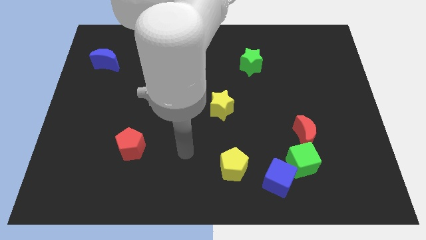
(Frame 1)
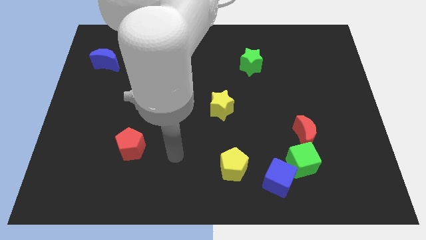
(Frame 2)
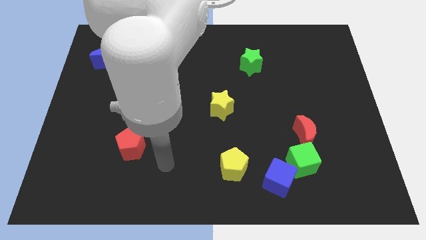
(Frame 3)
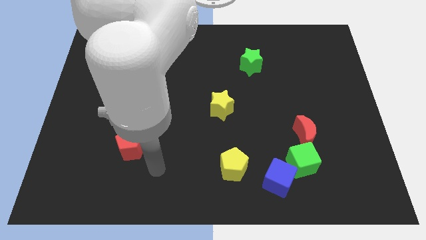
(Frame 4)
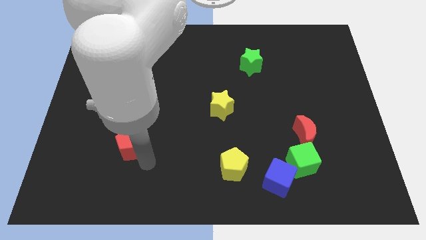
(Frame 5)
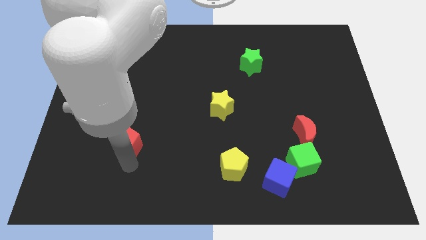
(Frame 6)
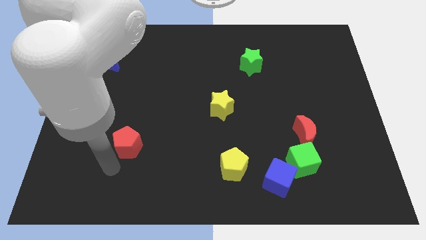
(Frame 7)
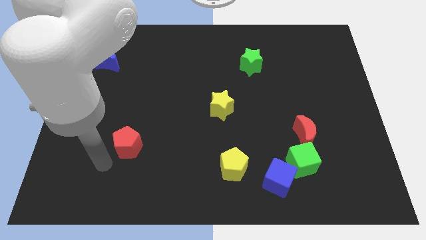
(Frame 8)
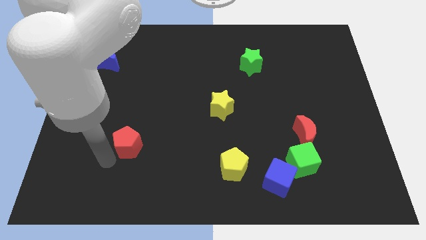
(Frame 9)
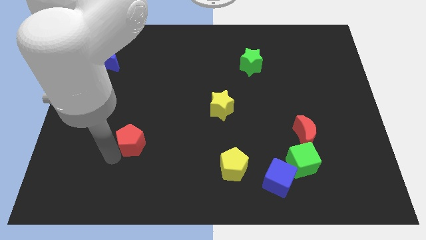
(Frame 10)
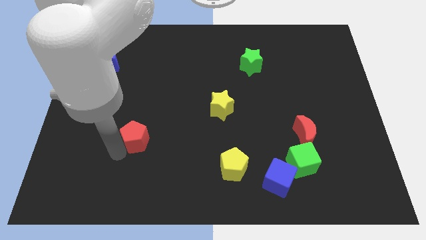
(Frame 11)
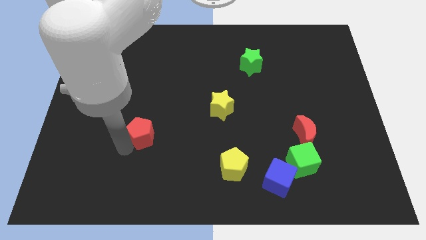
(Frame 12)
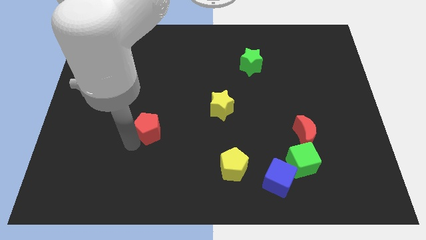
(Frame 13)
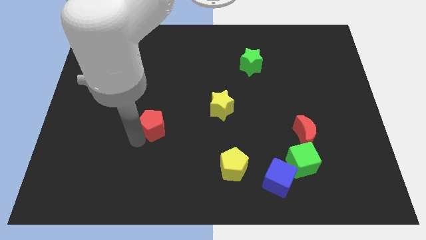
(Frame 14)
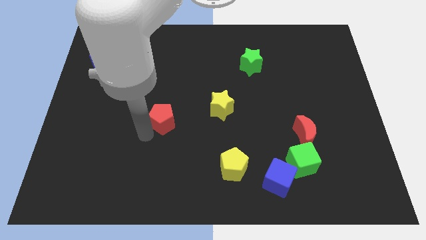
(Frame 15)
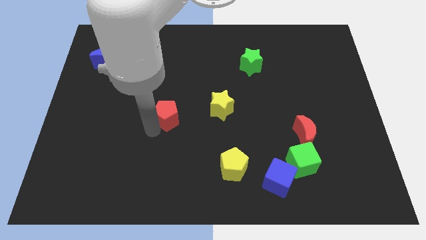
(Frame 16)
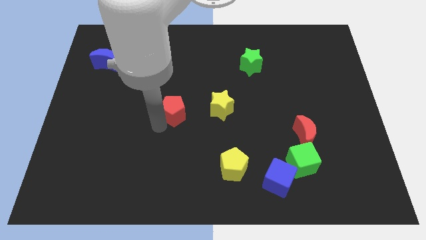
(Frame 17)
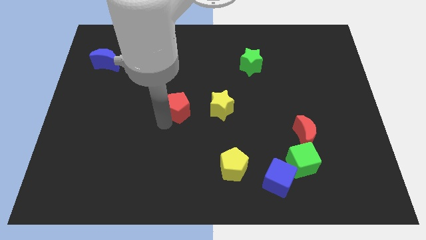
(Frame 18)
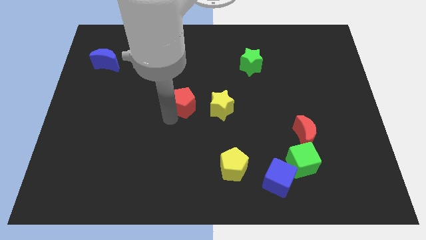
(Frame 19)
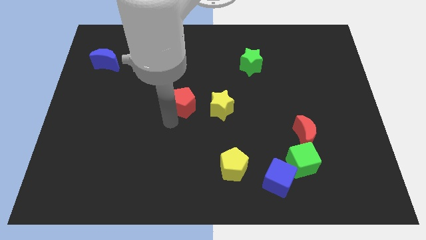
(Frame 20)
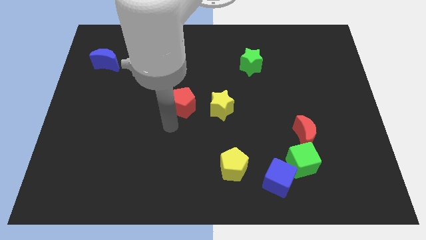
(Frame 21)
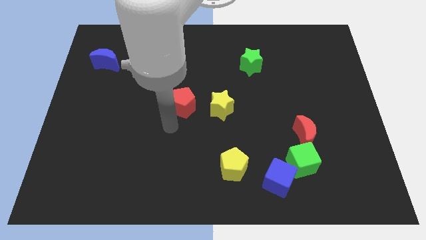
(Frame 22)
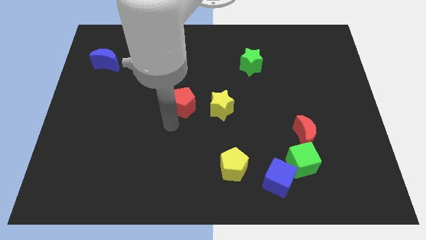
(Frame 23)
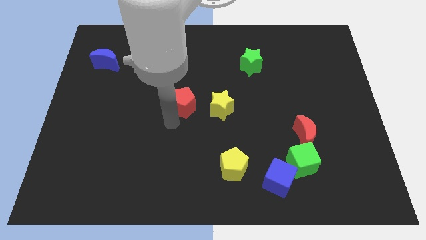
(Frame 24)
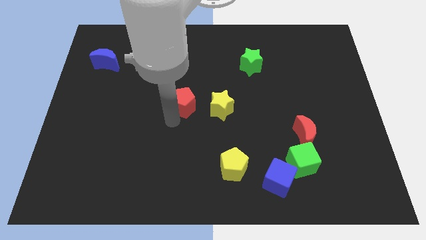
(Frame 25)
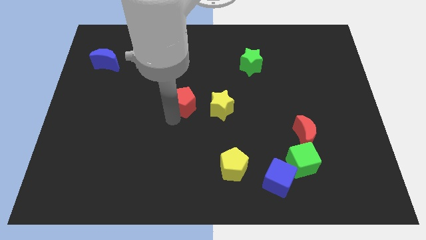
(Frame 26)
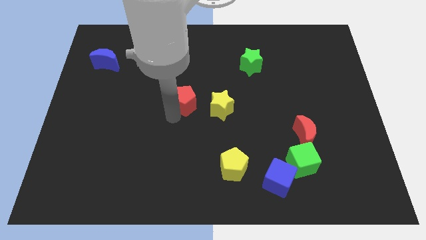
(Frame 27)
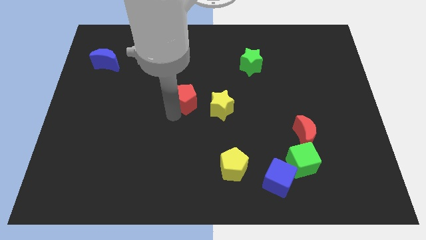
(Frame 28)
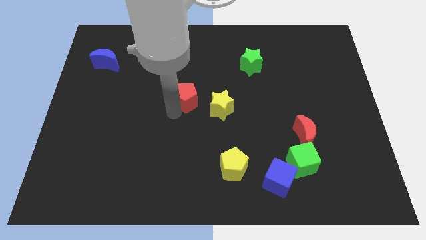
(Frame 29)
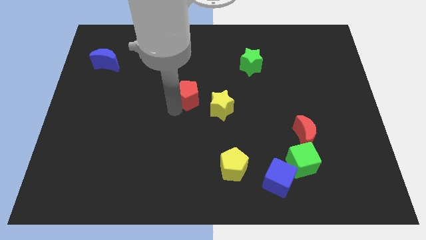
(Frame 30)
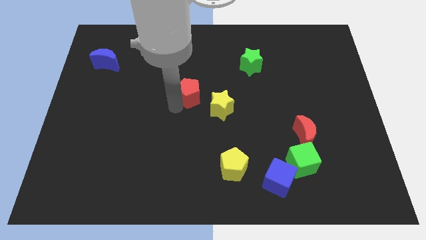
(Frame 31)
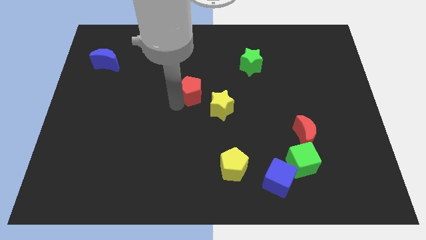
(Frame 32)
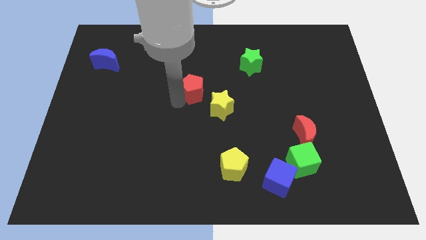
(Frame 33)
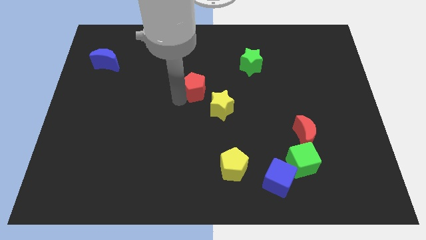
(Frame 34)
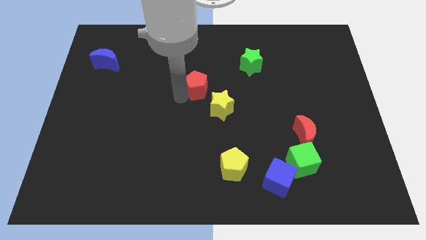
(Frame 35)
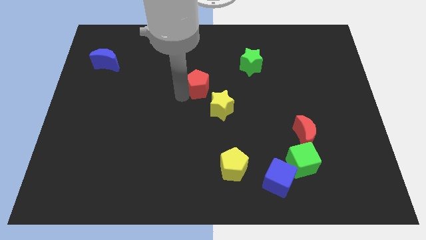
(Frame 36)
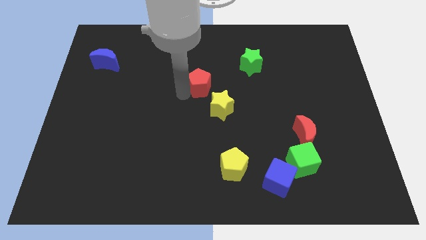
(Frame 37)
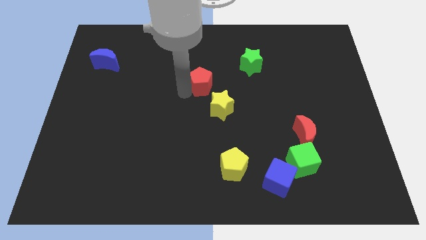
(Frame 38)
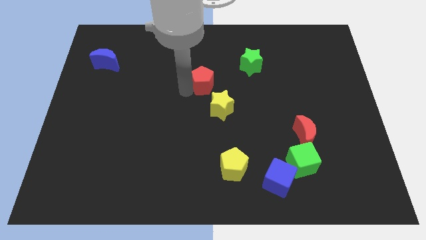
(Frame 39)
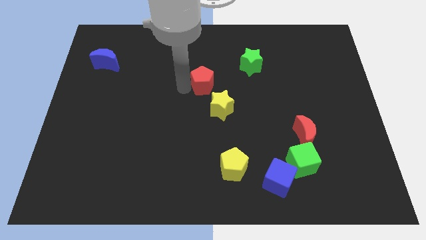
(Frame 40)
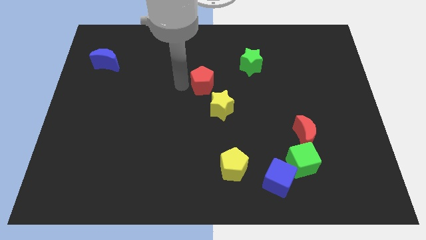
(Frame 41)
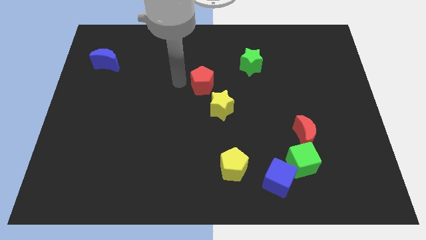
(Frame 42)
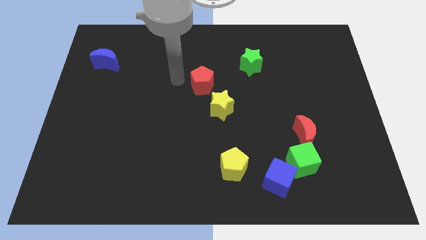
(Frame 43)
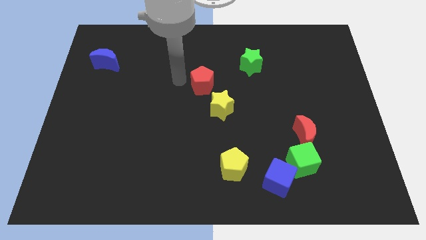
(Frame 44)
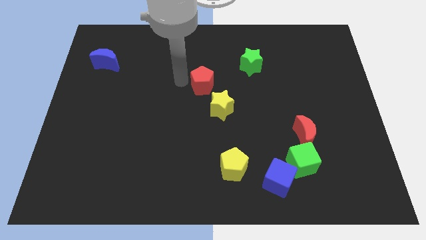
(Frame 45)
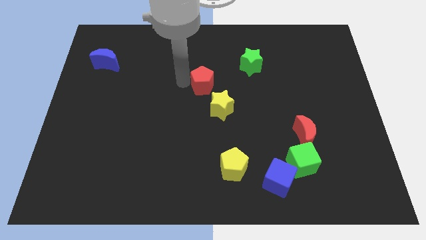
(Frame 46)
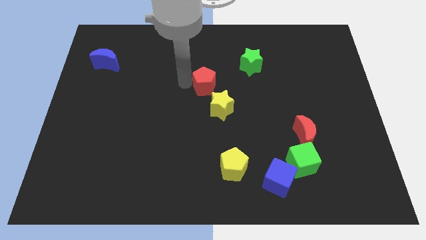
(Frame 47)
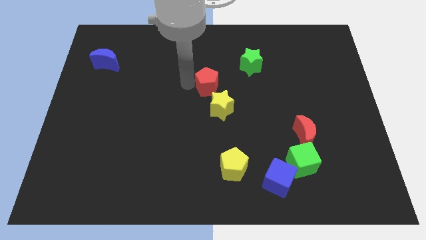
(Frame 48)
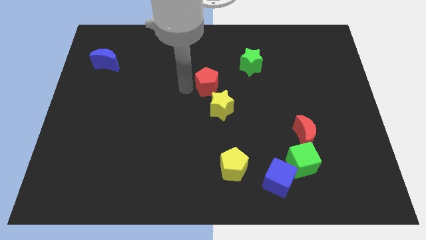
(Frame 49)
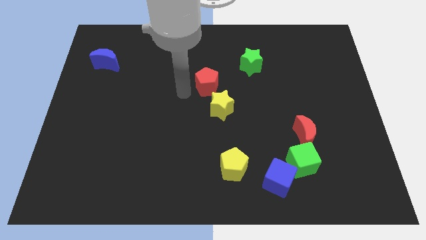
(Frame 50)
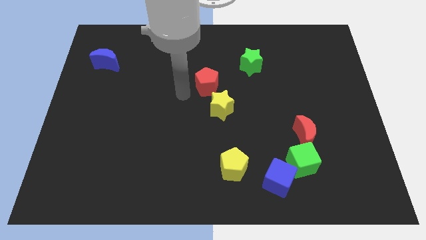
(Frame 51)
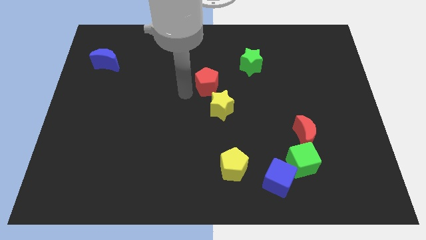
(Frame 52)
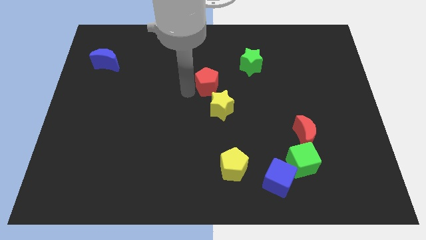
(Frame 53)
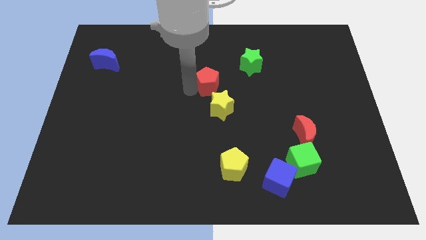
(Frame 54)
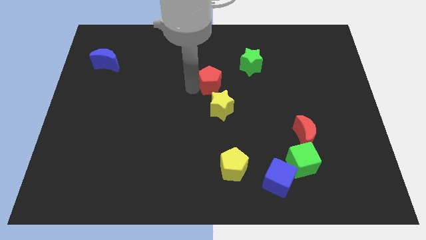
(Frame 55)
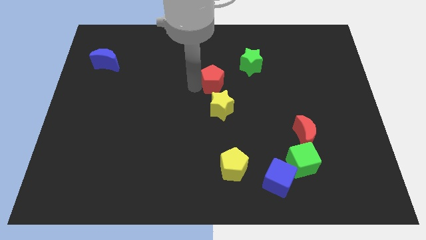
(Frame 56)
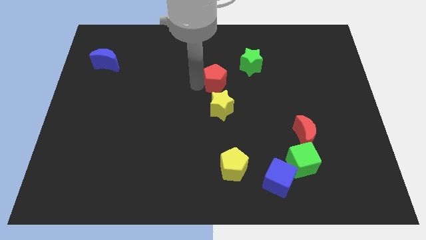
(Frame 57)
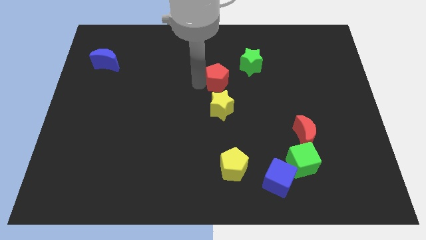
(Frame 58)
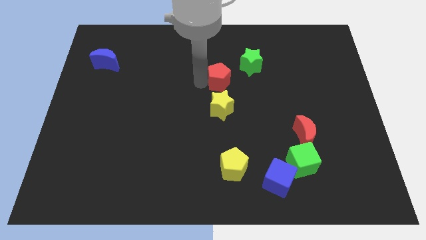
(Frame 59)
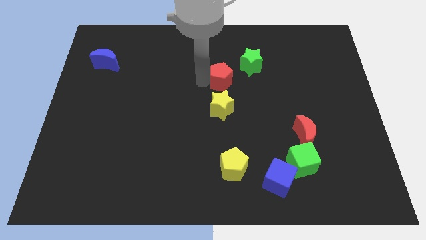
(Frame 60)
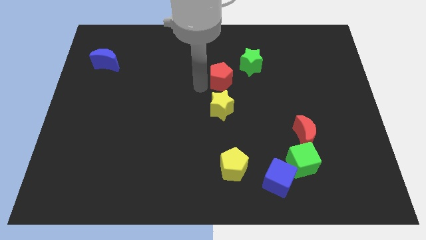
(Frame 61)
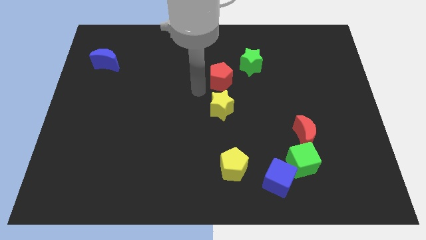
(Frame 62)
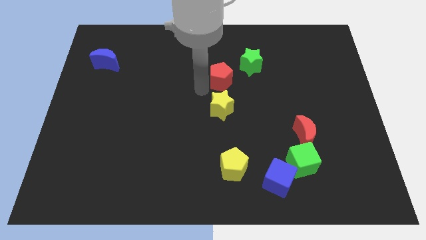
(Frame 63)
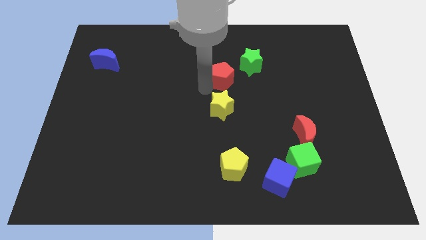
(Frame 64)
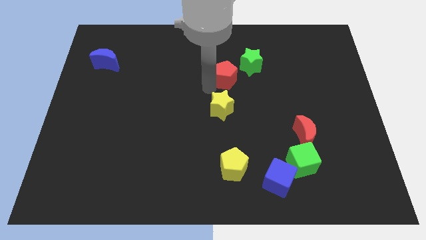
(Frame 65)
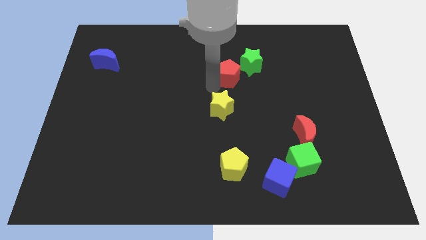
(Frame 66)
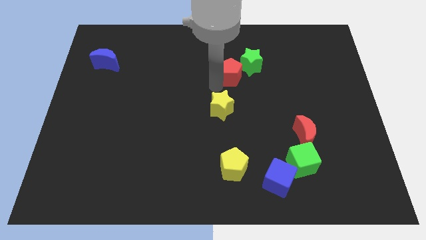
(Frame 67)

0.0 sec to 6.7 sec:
push the red pentagon towards the green star
